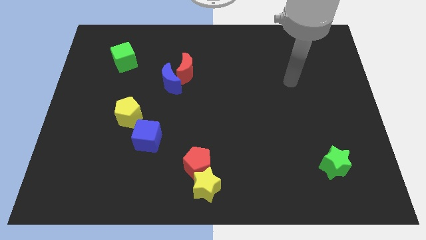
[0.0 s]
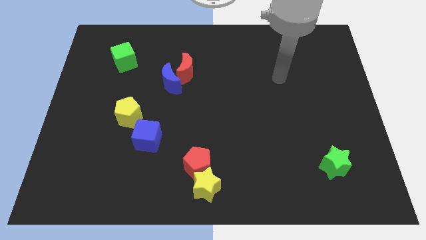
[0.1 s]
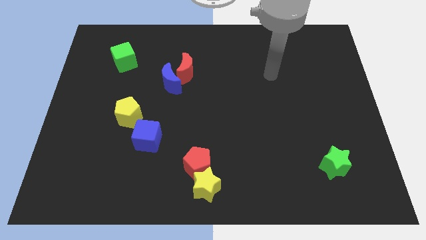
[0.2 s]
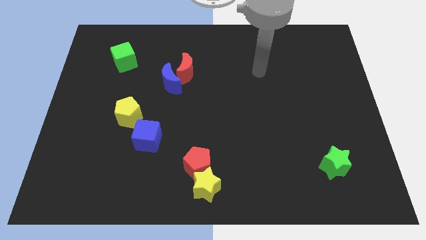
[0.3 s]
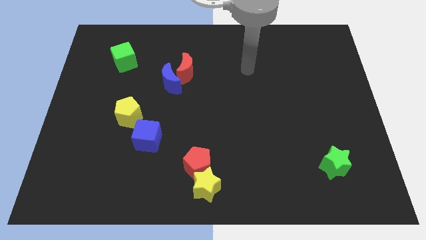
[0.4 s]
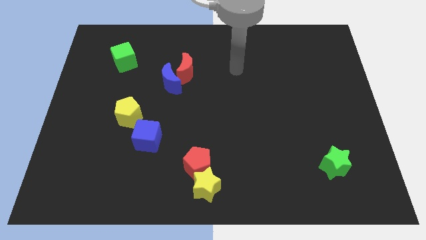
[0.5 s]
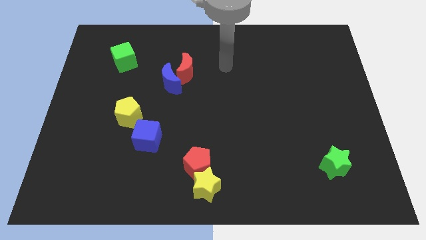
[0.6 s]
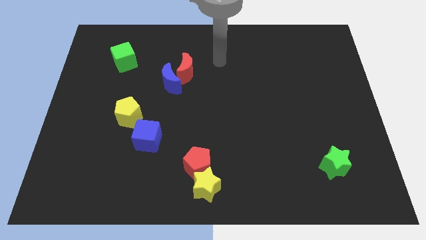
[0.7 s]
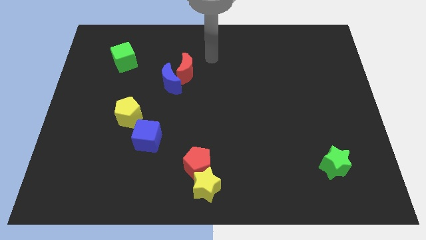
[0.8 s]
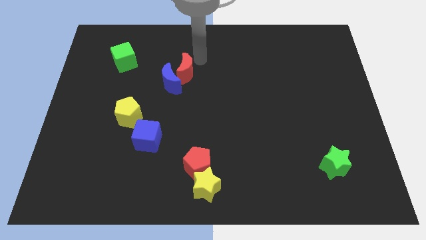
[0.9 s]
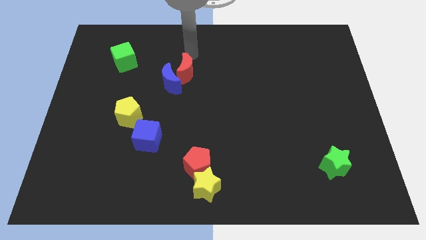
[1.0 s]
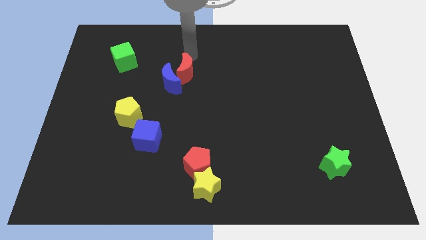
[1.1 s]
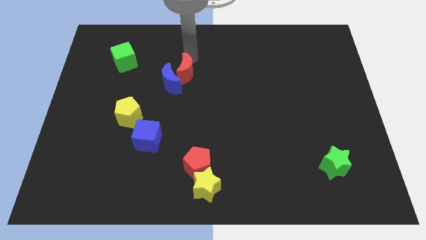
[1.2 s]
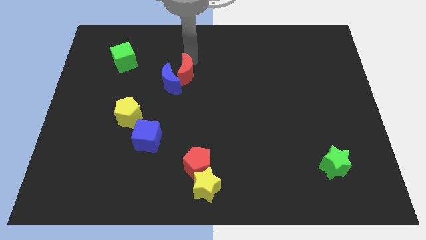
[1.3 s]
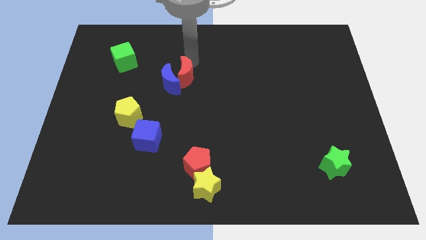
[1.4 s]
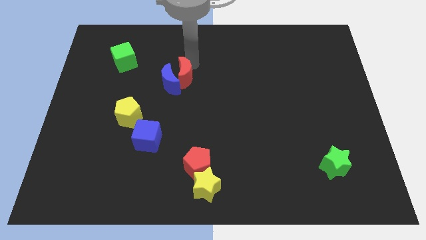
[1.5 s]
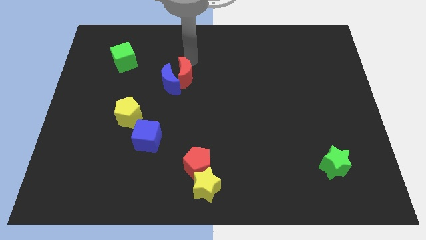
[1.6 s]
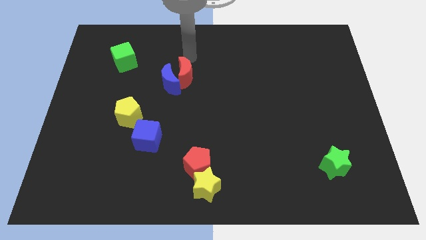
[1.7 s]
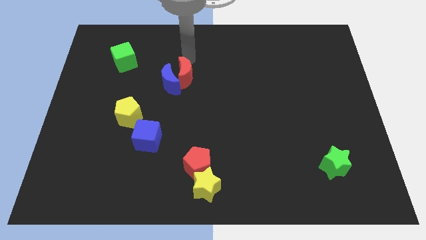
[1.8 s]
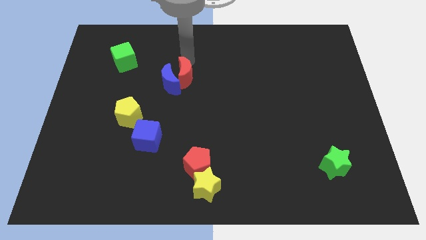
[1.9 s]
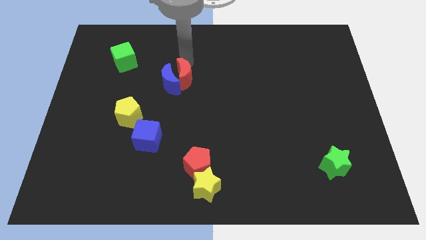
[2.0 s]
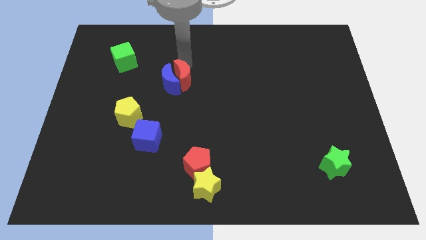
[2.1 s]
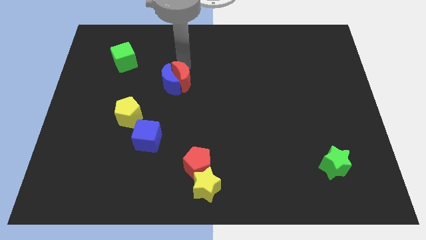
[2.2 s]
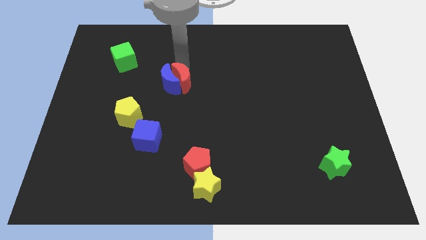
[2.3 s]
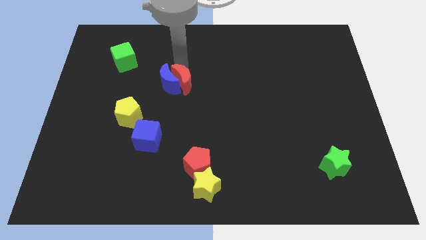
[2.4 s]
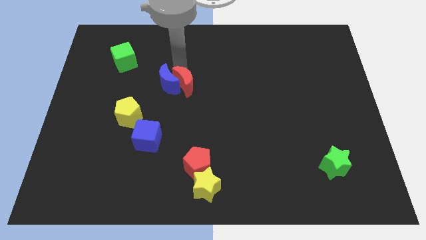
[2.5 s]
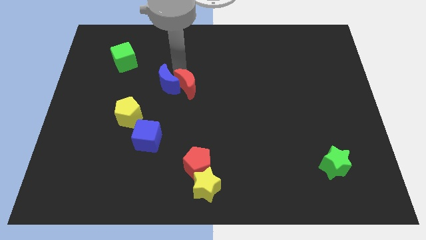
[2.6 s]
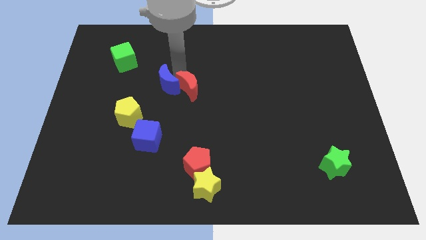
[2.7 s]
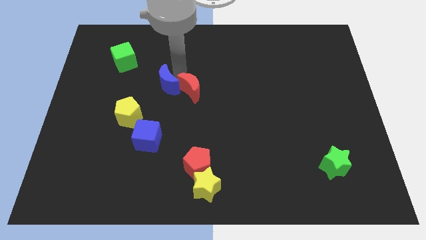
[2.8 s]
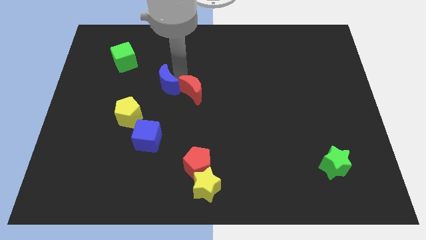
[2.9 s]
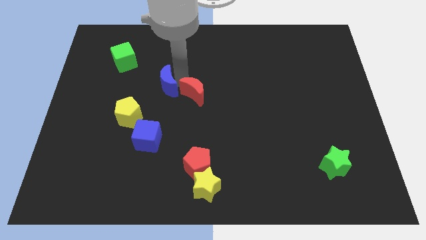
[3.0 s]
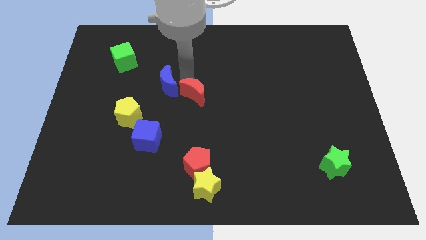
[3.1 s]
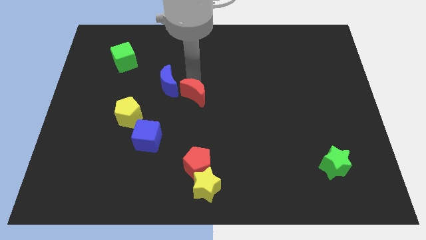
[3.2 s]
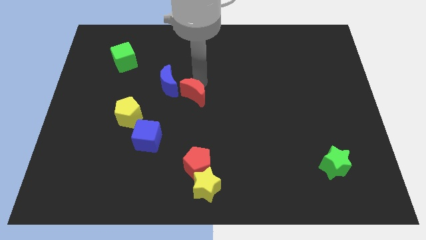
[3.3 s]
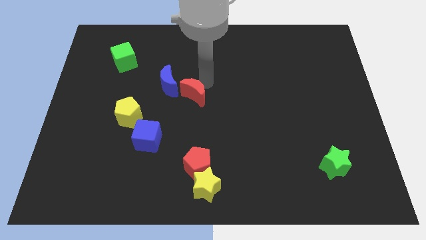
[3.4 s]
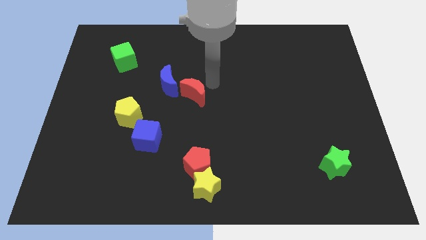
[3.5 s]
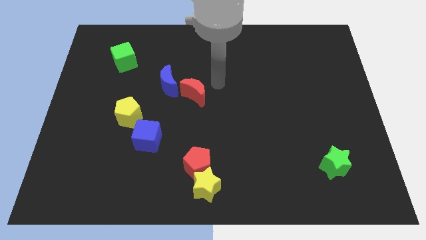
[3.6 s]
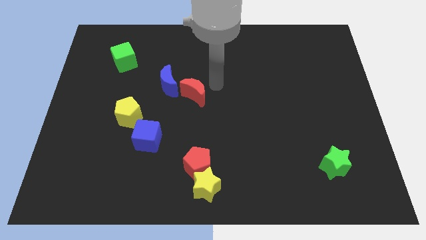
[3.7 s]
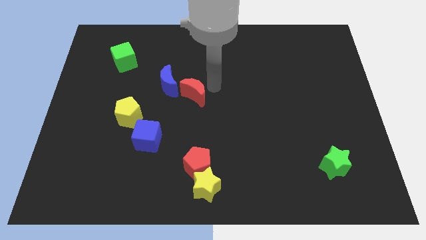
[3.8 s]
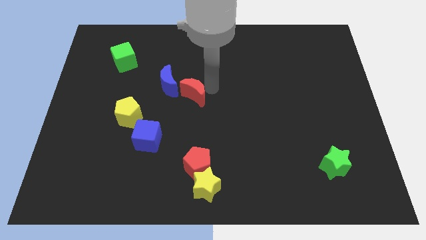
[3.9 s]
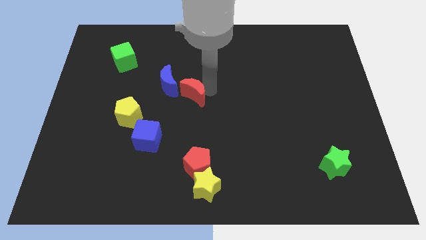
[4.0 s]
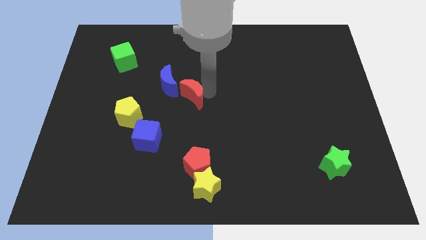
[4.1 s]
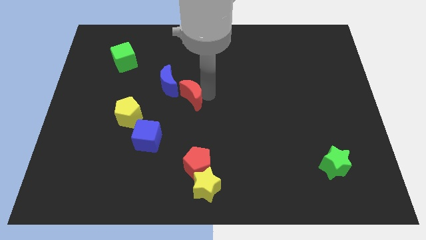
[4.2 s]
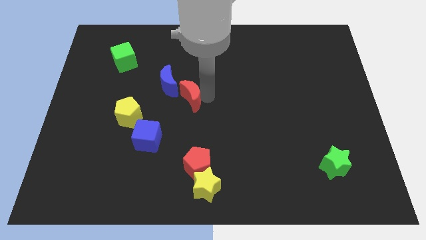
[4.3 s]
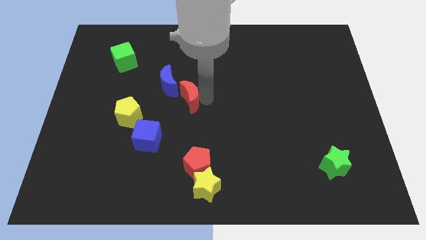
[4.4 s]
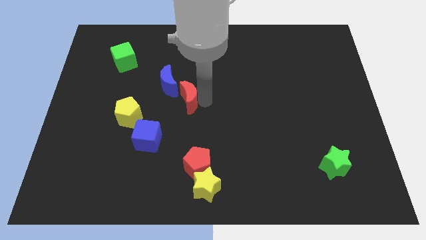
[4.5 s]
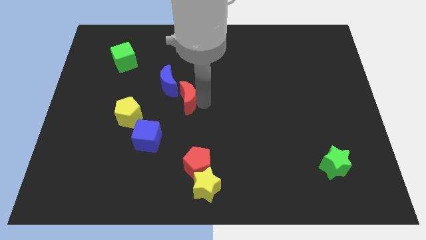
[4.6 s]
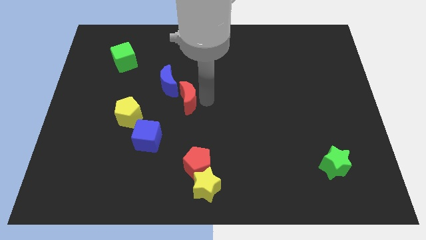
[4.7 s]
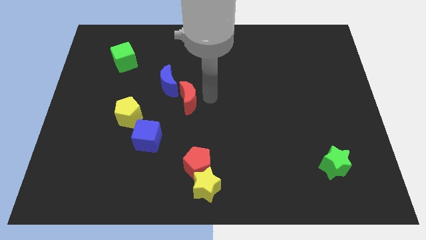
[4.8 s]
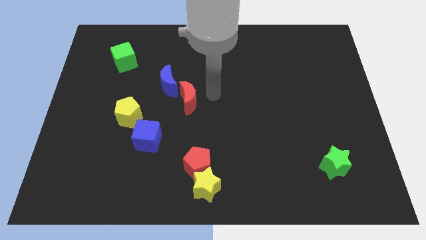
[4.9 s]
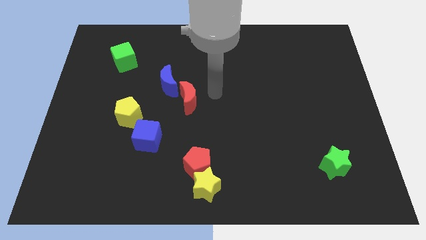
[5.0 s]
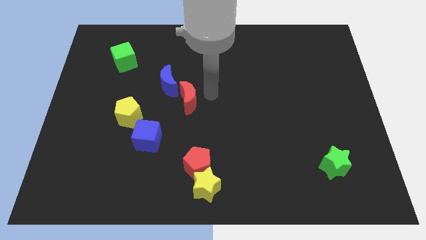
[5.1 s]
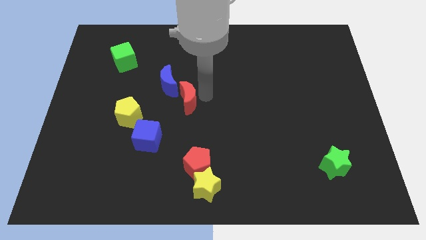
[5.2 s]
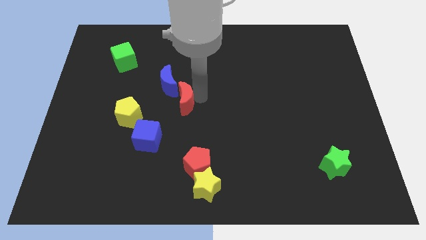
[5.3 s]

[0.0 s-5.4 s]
put the red moon below the blue moon

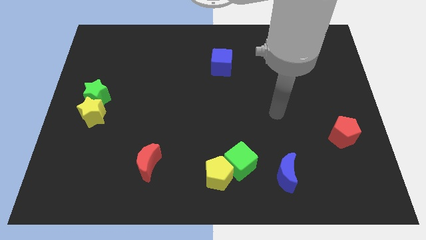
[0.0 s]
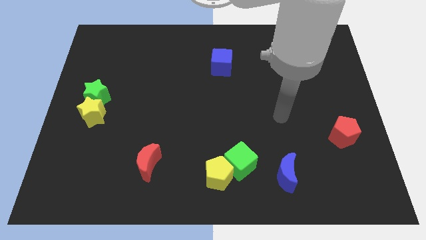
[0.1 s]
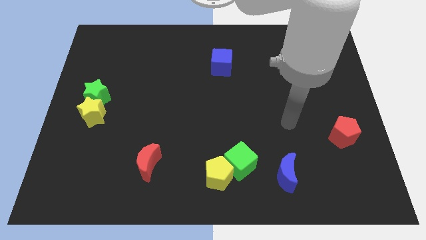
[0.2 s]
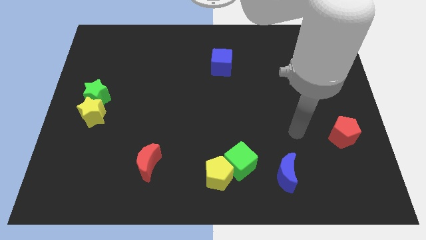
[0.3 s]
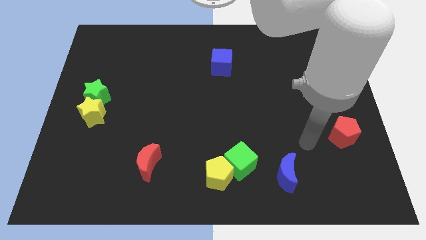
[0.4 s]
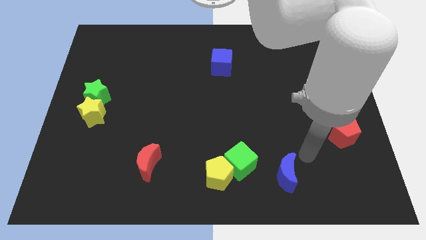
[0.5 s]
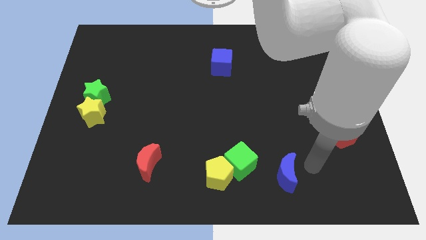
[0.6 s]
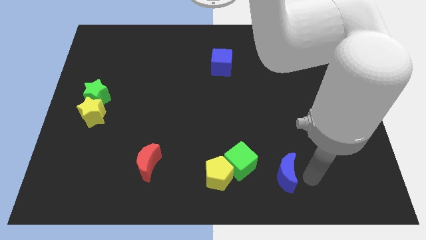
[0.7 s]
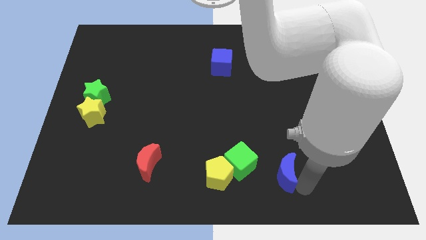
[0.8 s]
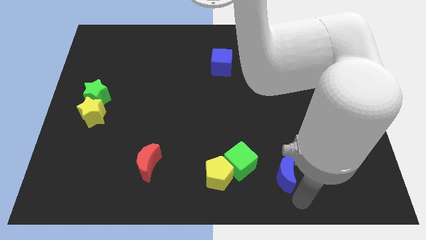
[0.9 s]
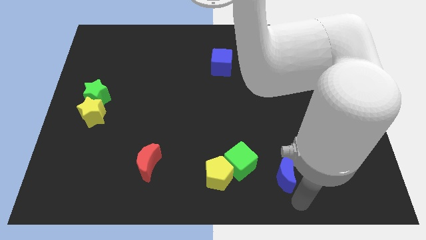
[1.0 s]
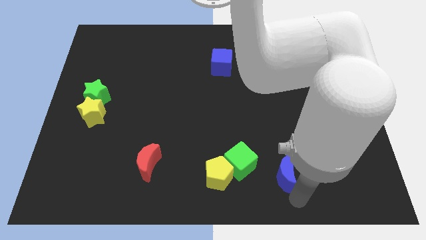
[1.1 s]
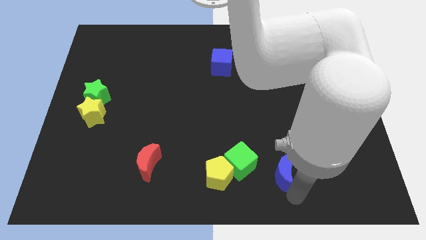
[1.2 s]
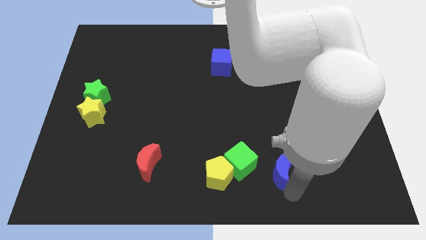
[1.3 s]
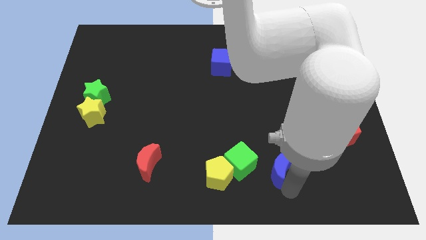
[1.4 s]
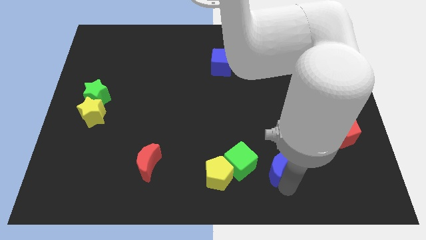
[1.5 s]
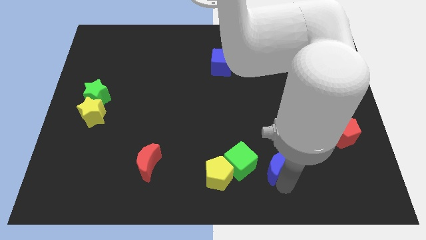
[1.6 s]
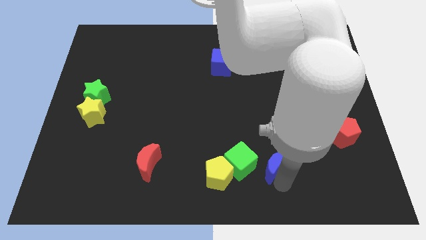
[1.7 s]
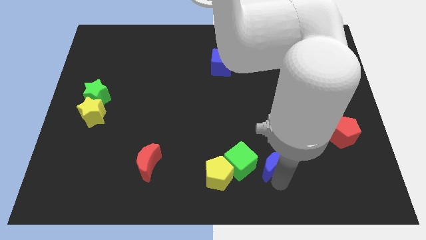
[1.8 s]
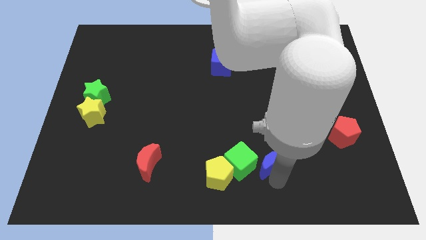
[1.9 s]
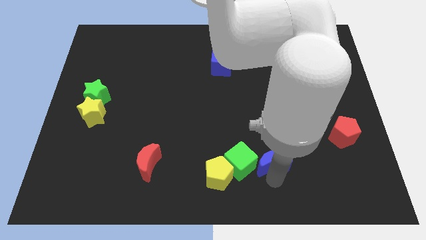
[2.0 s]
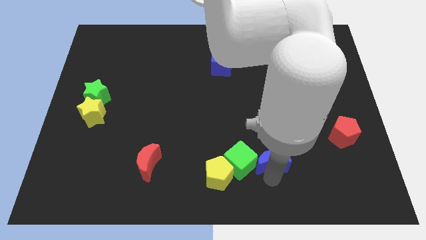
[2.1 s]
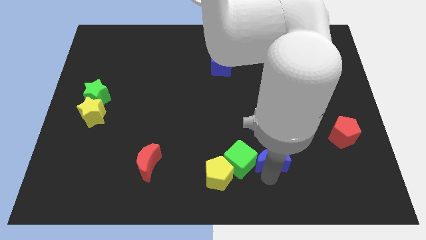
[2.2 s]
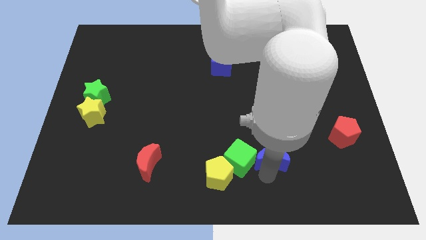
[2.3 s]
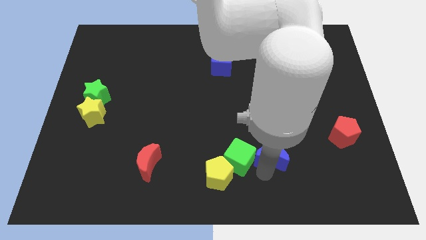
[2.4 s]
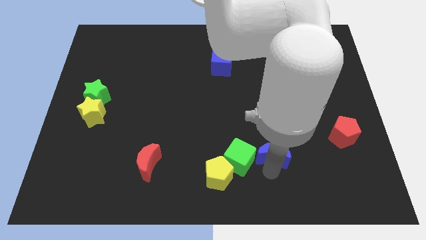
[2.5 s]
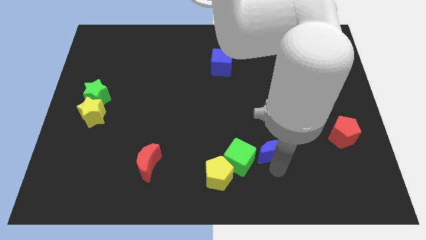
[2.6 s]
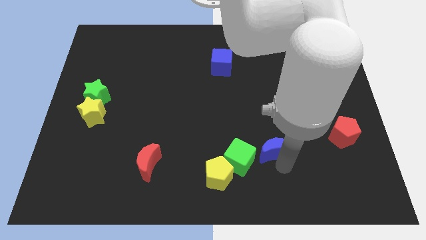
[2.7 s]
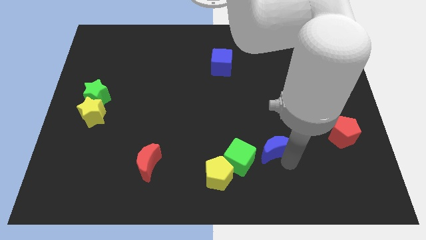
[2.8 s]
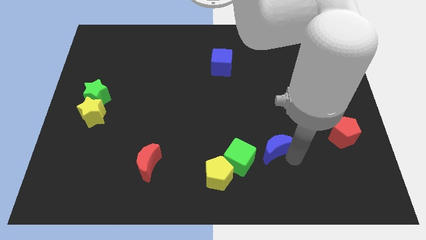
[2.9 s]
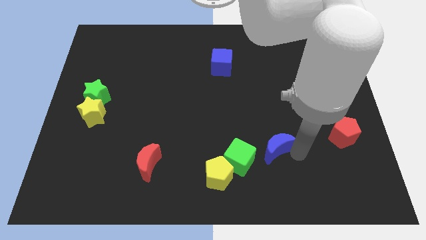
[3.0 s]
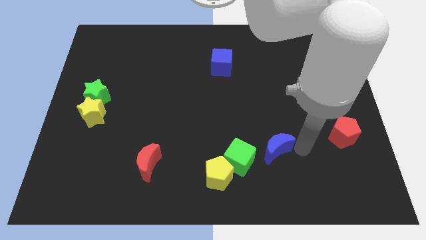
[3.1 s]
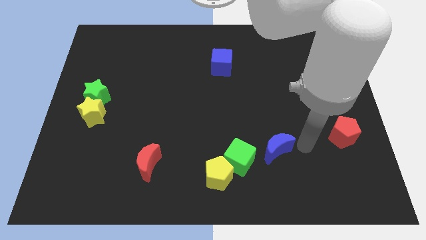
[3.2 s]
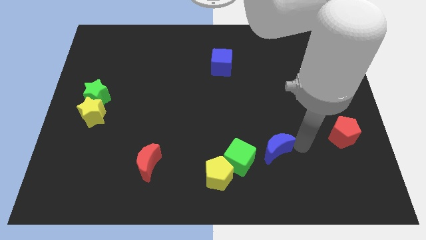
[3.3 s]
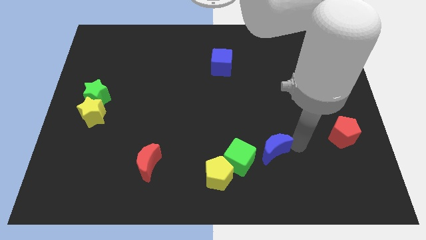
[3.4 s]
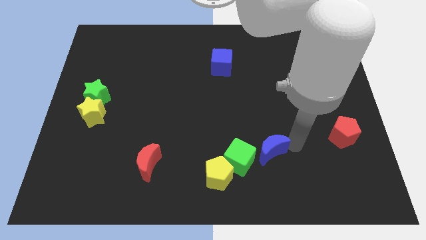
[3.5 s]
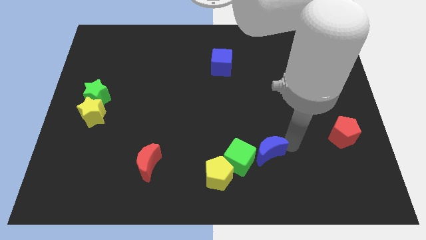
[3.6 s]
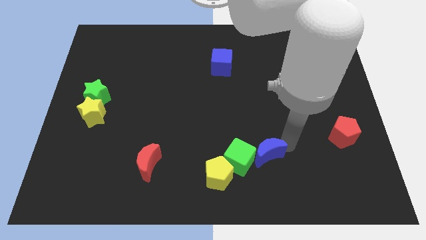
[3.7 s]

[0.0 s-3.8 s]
put the blue moon diagonally up and to the right of the yellow pentagon
